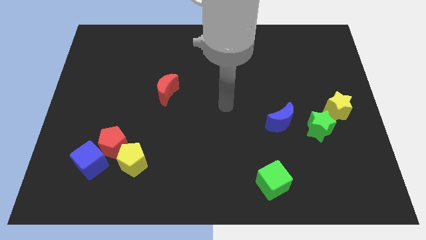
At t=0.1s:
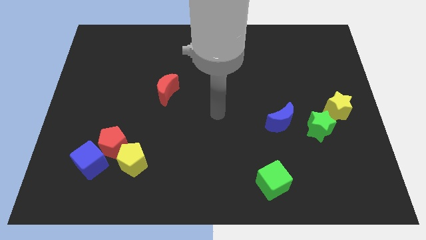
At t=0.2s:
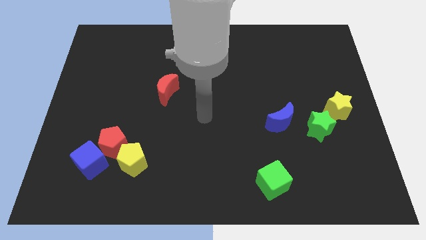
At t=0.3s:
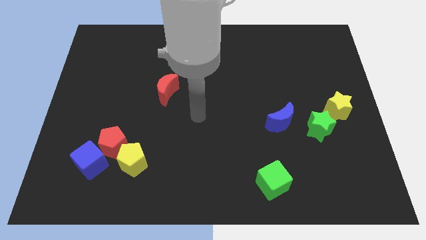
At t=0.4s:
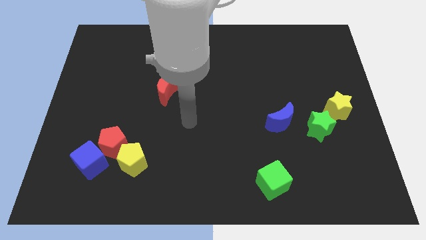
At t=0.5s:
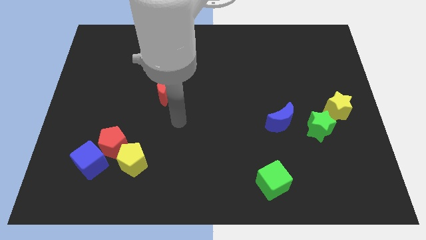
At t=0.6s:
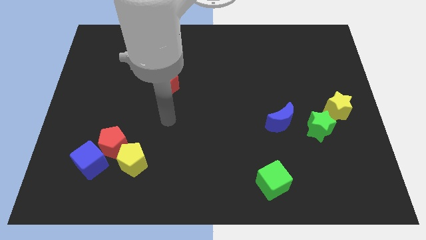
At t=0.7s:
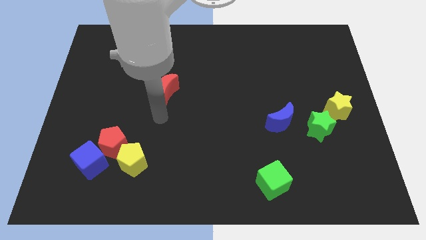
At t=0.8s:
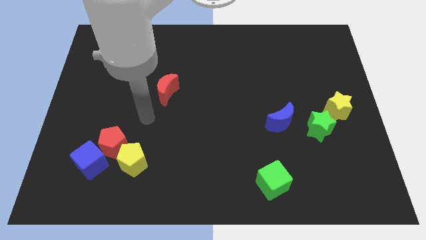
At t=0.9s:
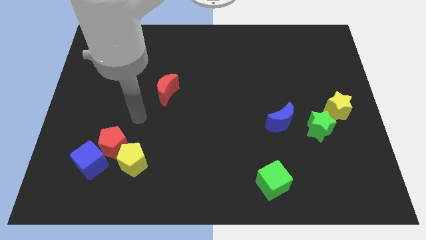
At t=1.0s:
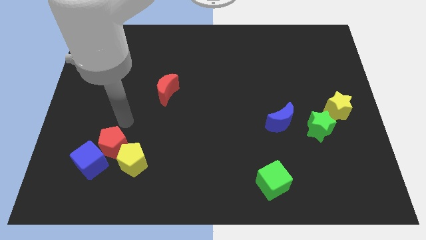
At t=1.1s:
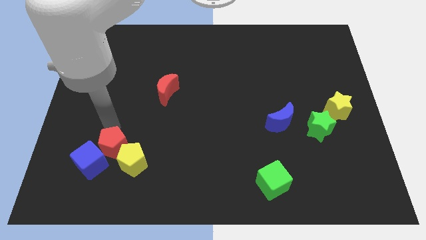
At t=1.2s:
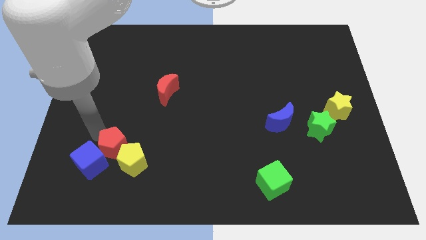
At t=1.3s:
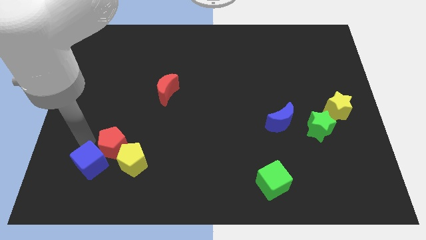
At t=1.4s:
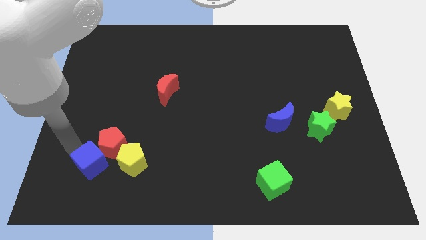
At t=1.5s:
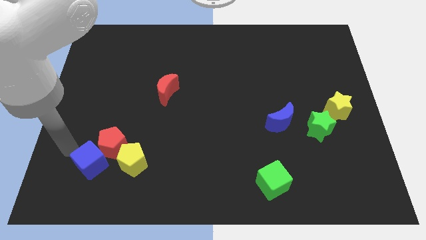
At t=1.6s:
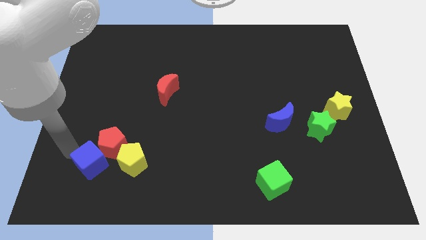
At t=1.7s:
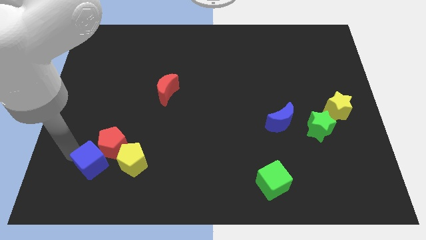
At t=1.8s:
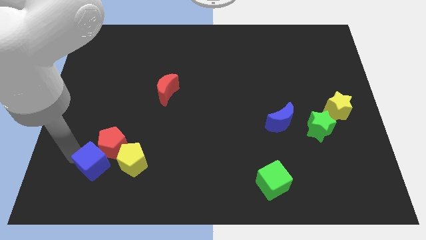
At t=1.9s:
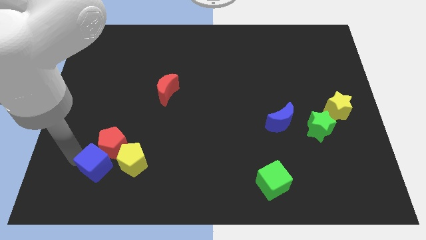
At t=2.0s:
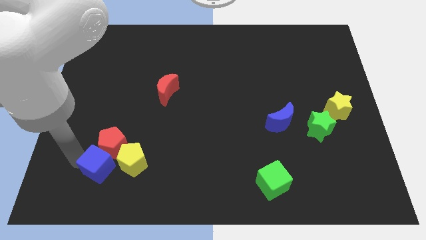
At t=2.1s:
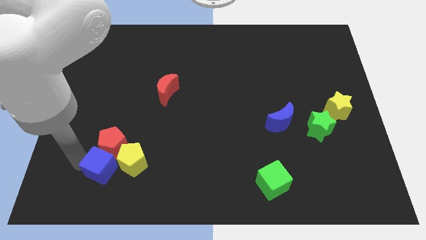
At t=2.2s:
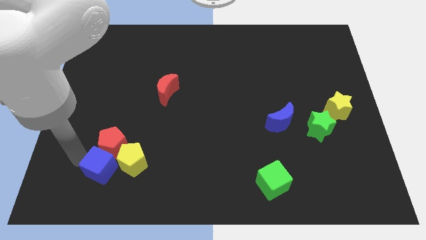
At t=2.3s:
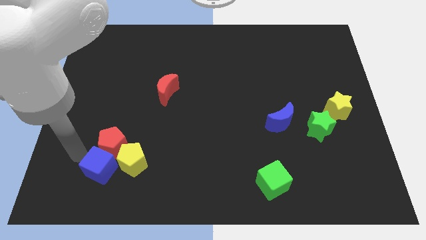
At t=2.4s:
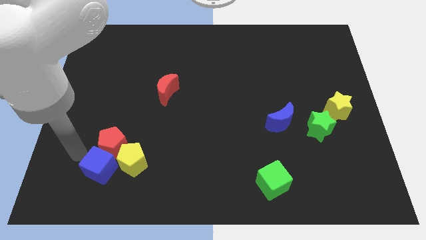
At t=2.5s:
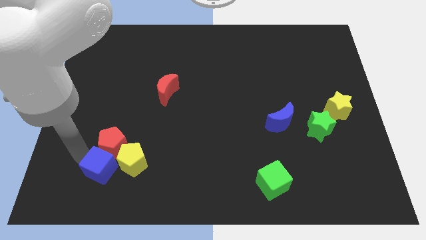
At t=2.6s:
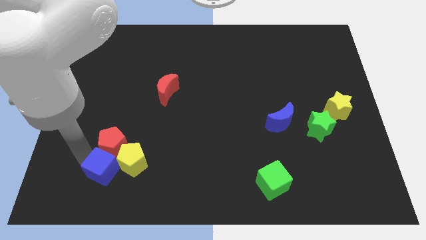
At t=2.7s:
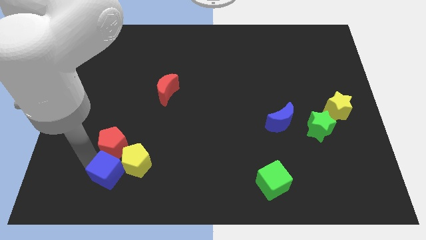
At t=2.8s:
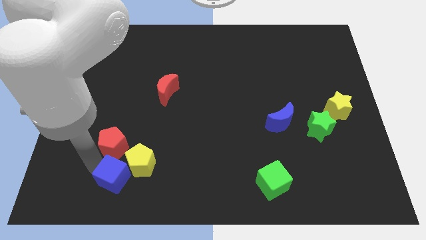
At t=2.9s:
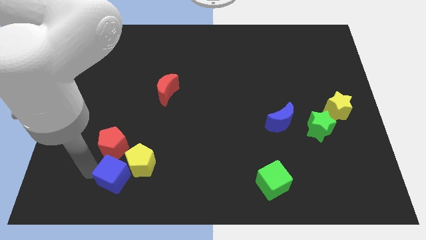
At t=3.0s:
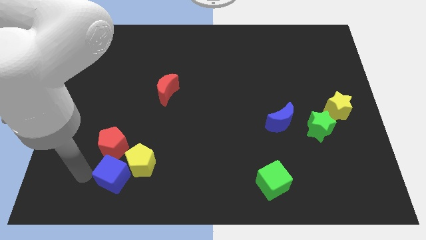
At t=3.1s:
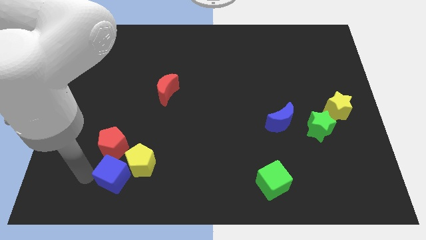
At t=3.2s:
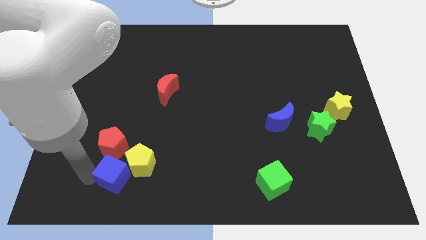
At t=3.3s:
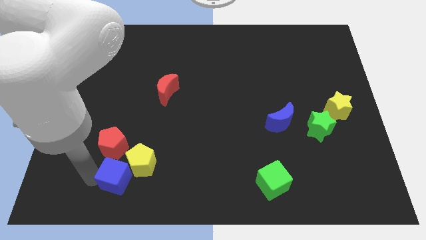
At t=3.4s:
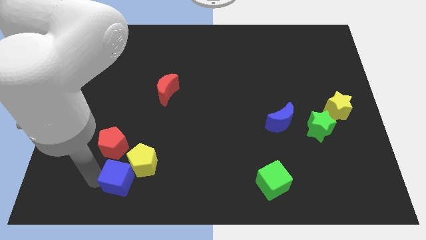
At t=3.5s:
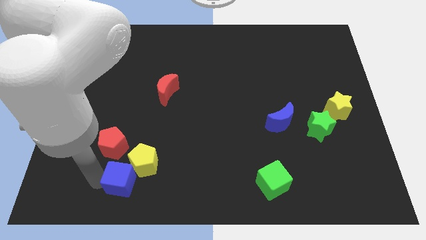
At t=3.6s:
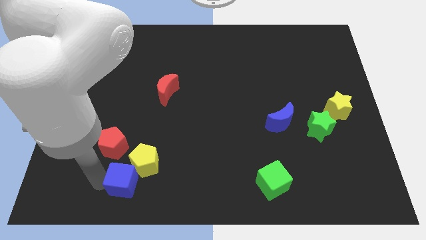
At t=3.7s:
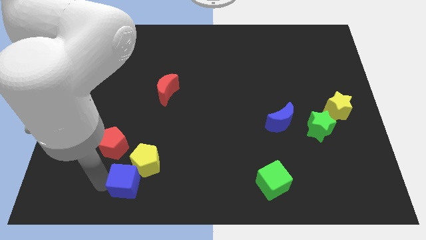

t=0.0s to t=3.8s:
slide the blue cube right somewhat

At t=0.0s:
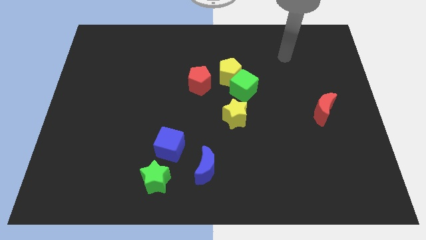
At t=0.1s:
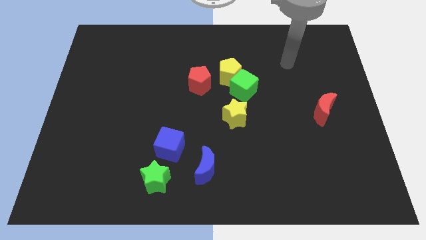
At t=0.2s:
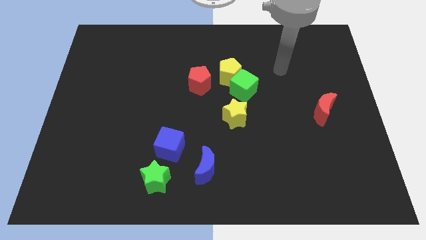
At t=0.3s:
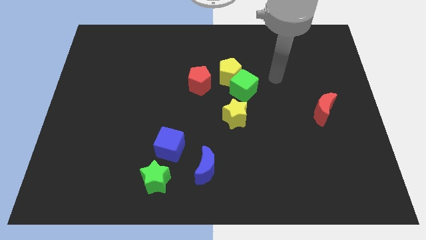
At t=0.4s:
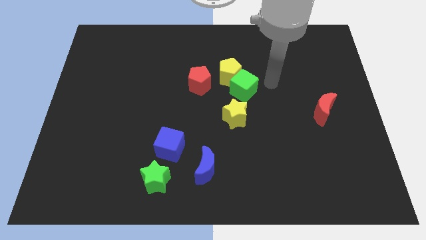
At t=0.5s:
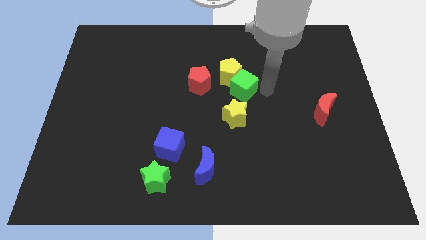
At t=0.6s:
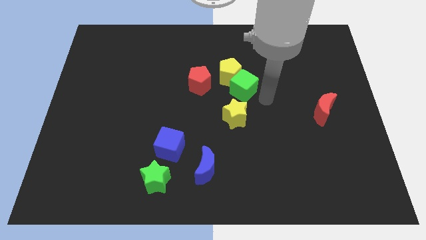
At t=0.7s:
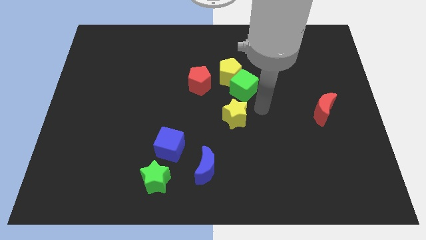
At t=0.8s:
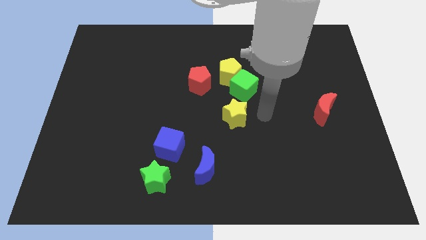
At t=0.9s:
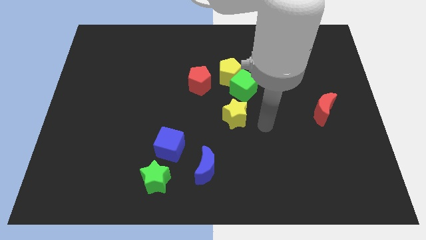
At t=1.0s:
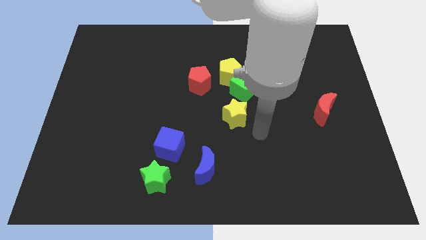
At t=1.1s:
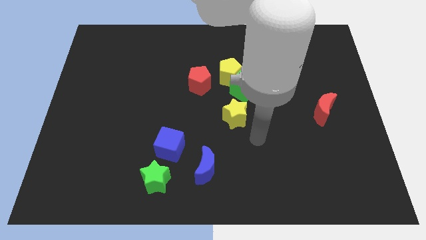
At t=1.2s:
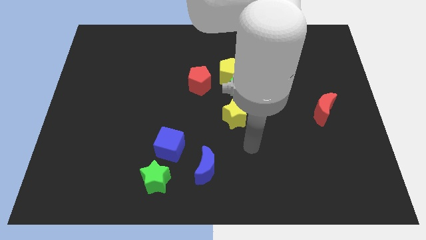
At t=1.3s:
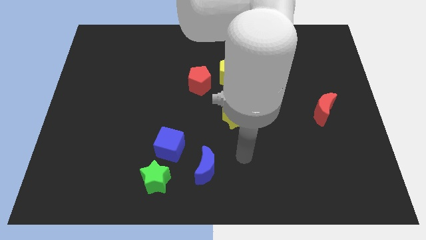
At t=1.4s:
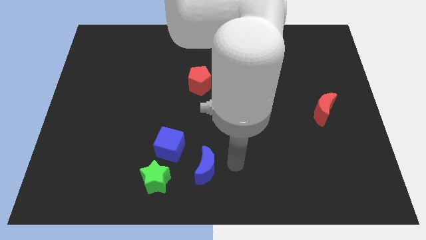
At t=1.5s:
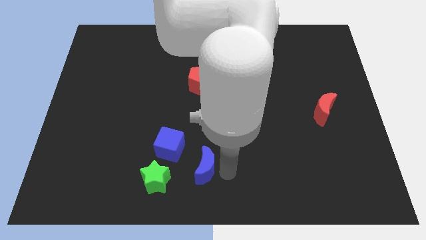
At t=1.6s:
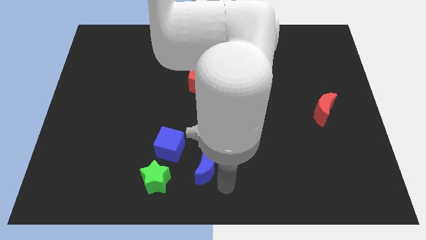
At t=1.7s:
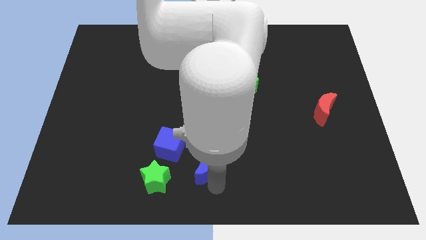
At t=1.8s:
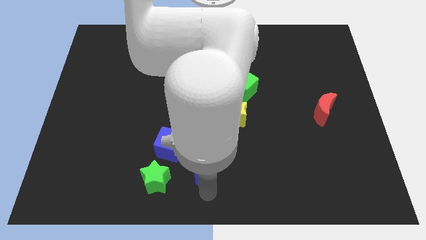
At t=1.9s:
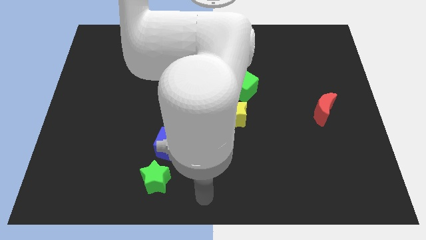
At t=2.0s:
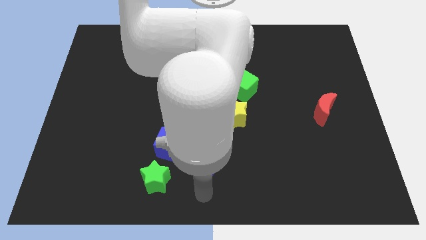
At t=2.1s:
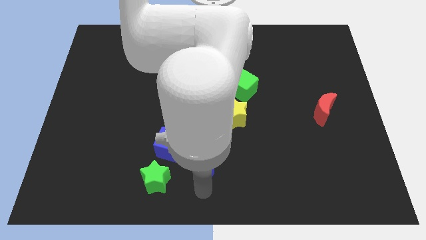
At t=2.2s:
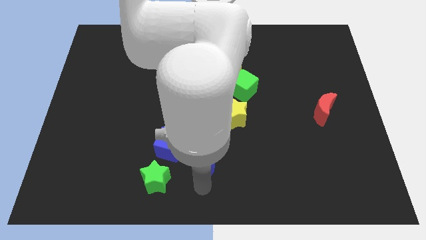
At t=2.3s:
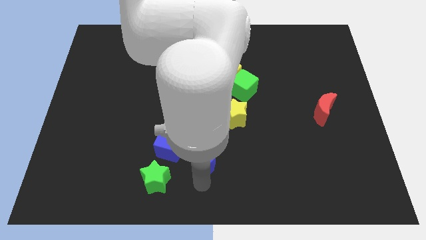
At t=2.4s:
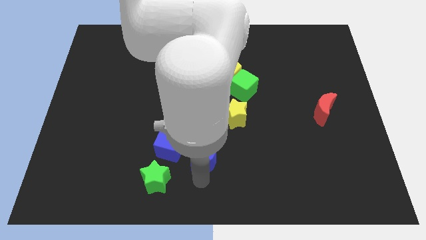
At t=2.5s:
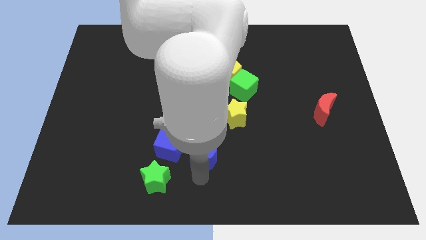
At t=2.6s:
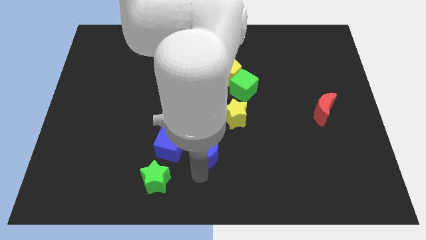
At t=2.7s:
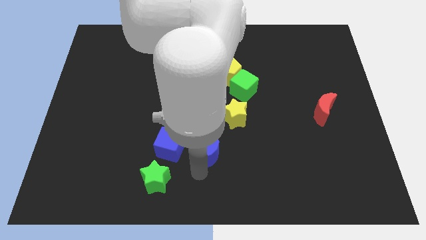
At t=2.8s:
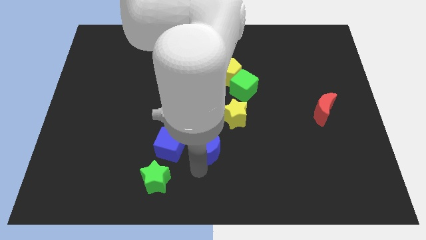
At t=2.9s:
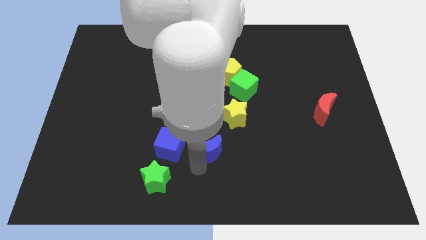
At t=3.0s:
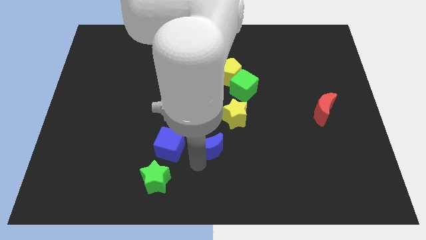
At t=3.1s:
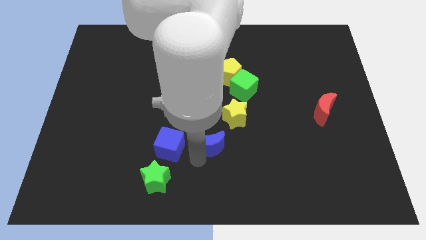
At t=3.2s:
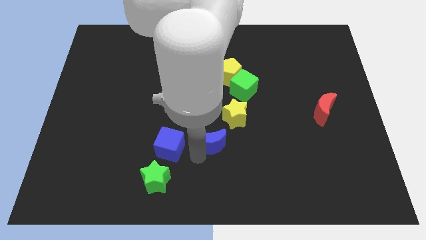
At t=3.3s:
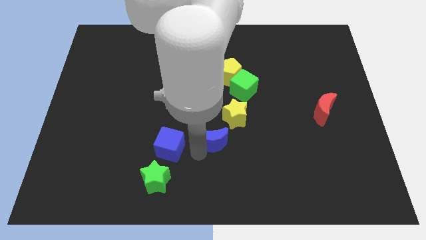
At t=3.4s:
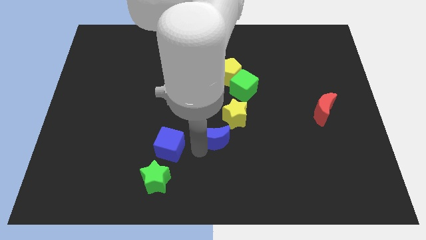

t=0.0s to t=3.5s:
slide the blue moon a little up

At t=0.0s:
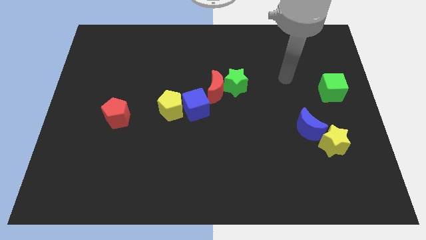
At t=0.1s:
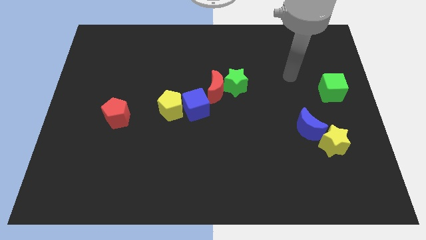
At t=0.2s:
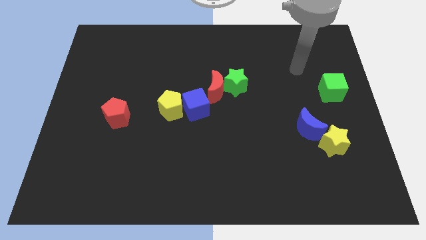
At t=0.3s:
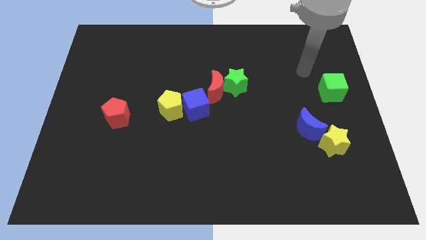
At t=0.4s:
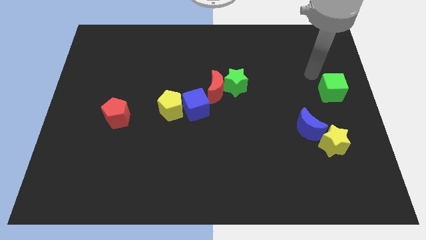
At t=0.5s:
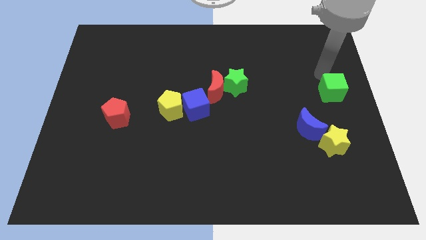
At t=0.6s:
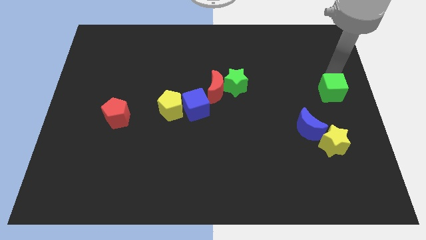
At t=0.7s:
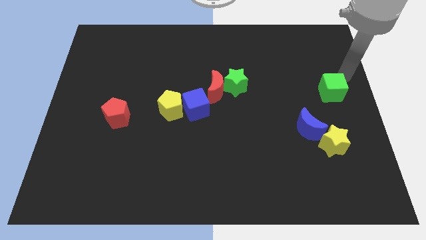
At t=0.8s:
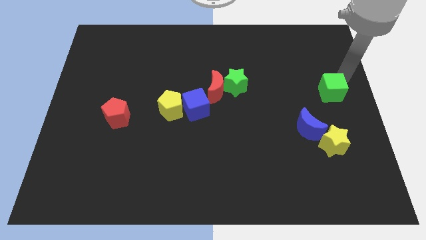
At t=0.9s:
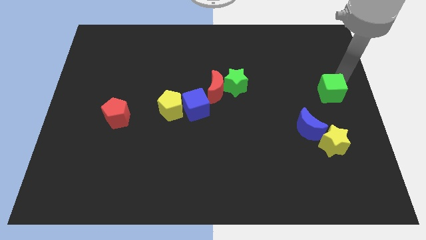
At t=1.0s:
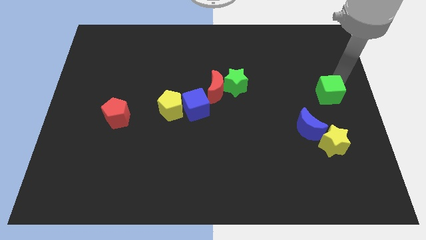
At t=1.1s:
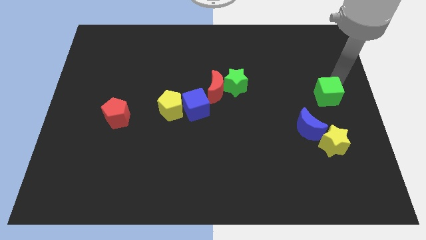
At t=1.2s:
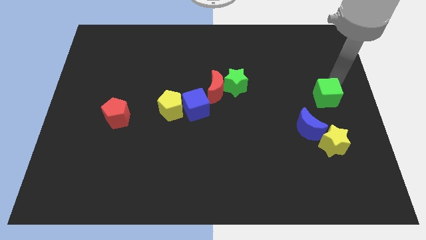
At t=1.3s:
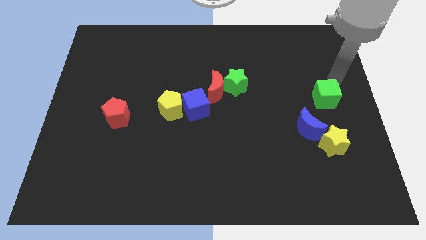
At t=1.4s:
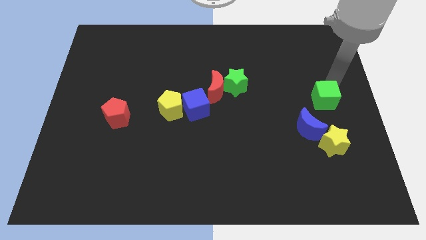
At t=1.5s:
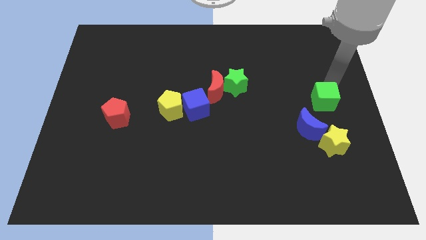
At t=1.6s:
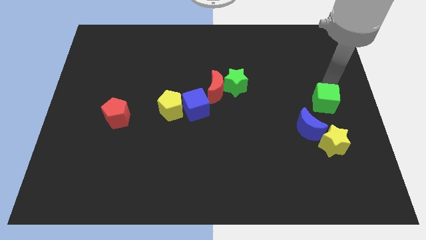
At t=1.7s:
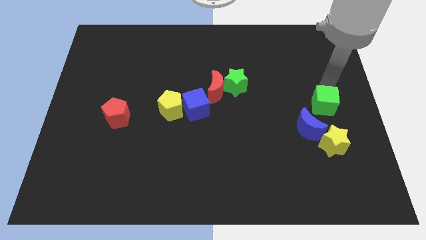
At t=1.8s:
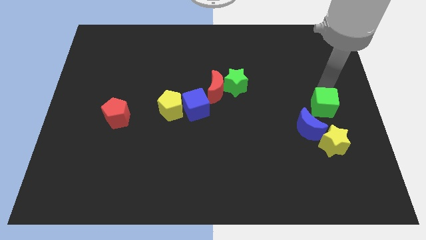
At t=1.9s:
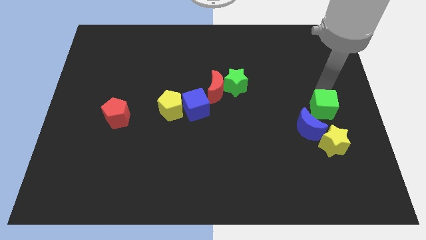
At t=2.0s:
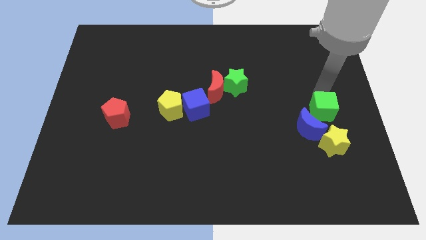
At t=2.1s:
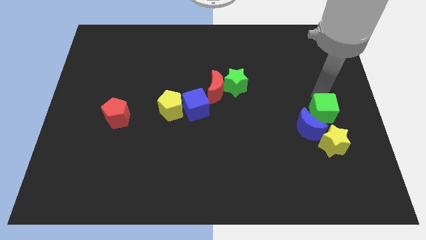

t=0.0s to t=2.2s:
slightly push the green cube diagonally downwards and left
